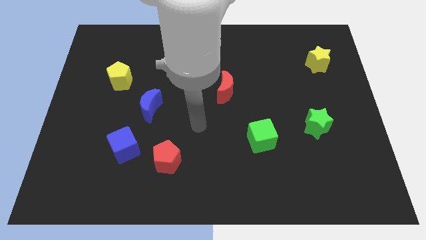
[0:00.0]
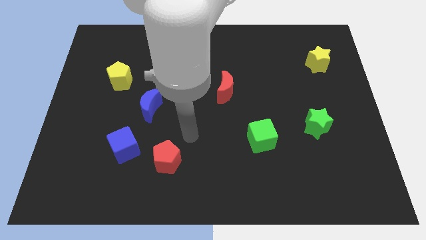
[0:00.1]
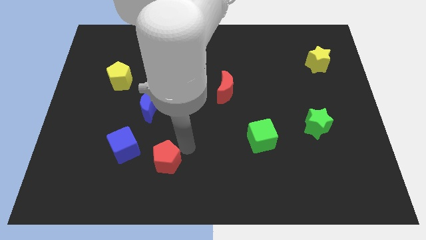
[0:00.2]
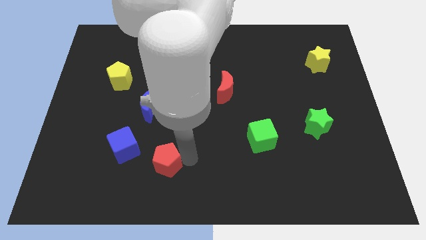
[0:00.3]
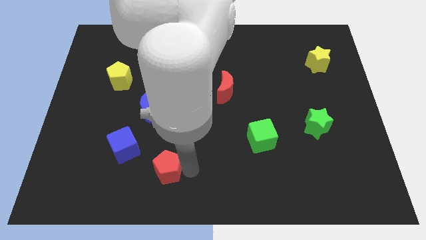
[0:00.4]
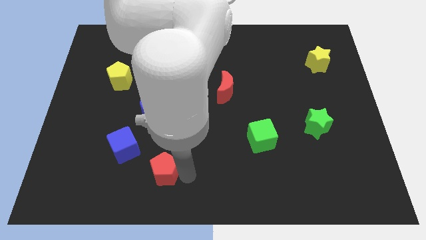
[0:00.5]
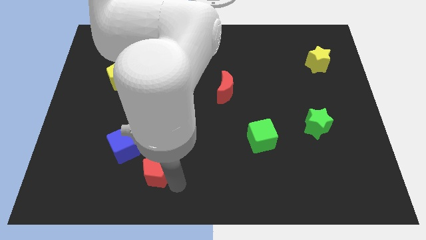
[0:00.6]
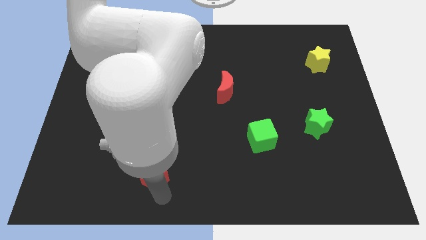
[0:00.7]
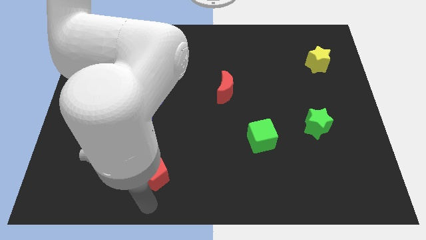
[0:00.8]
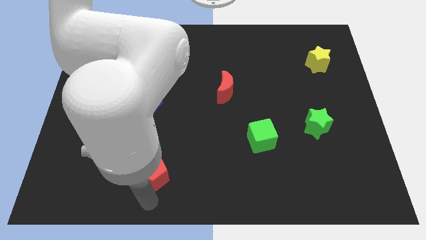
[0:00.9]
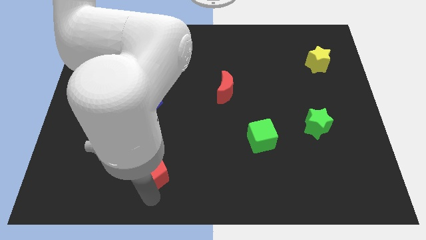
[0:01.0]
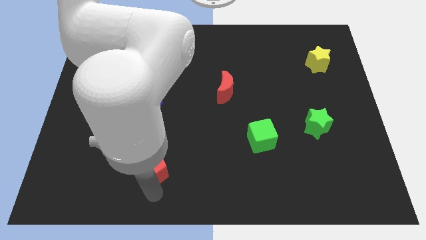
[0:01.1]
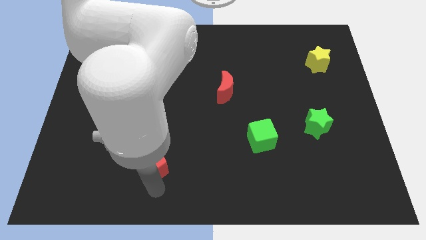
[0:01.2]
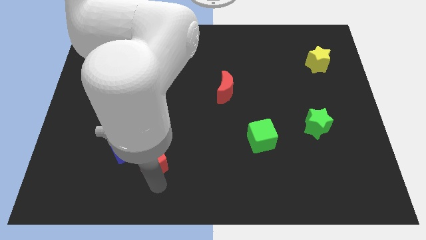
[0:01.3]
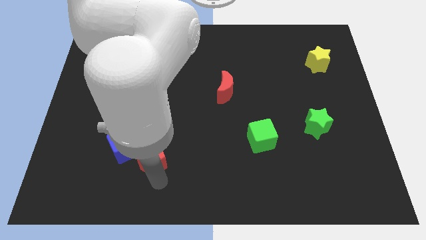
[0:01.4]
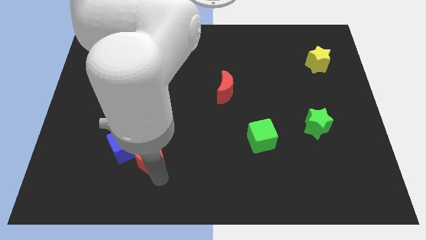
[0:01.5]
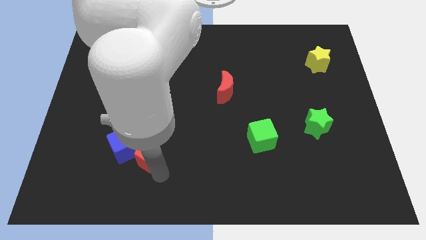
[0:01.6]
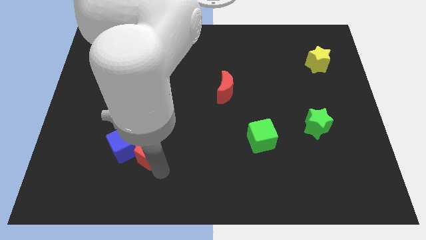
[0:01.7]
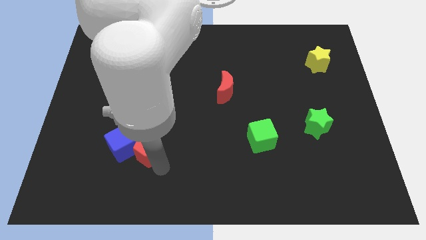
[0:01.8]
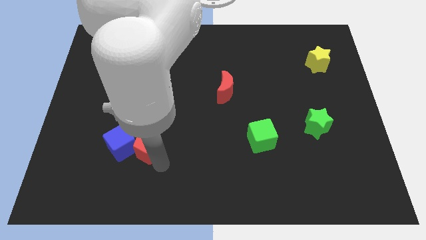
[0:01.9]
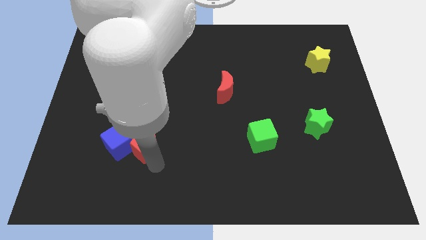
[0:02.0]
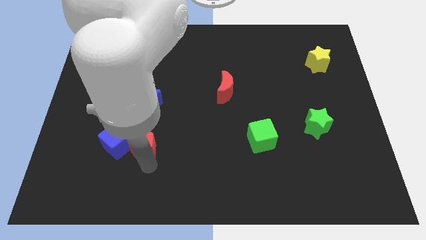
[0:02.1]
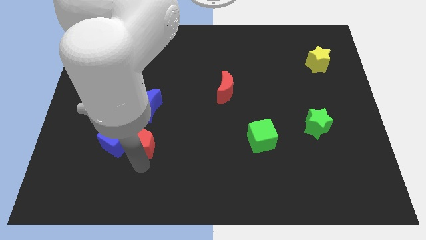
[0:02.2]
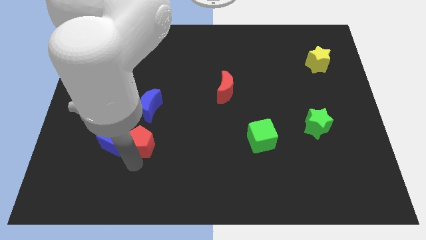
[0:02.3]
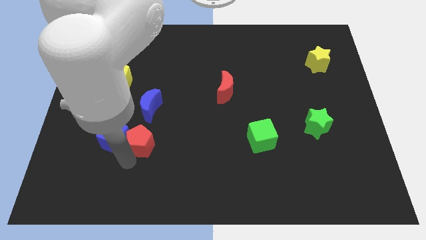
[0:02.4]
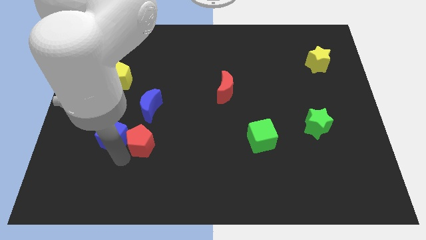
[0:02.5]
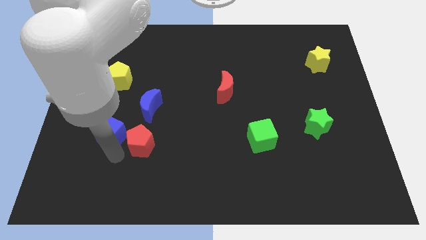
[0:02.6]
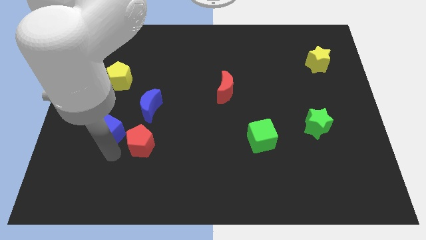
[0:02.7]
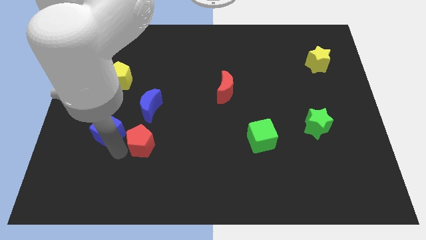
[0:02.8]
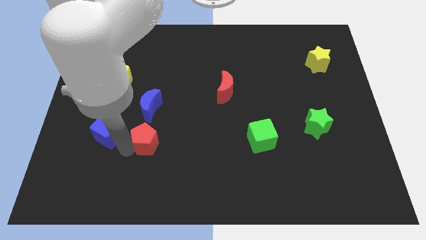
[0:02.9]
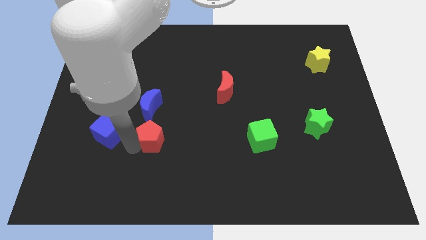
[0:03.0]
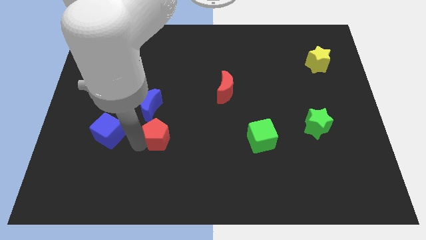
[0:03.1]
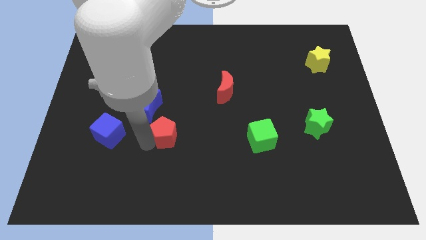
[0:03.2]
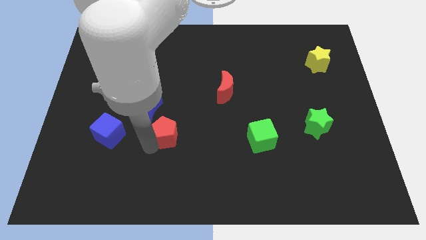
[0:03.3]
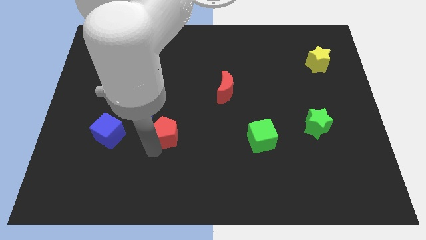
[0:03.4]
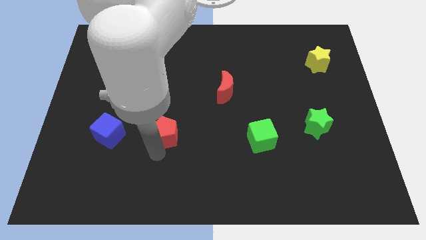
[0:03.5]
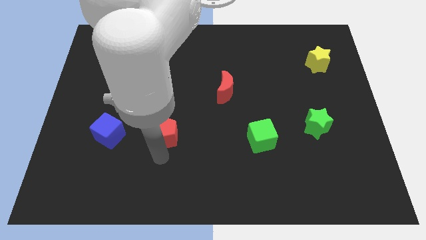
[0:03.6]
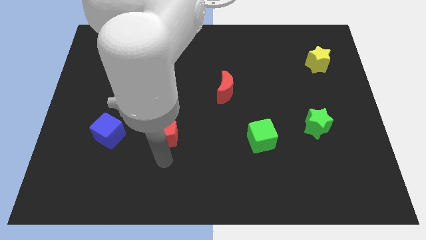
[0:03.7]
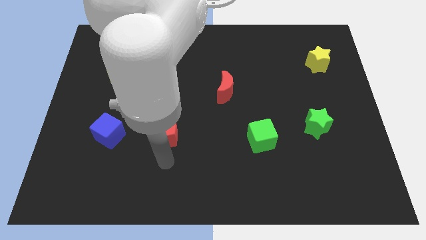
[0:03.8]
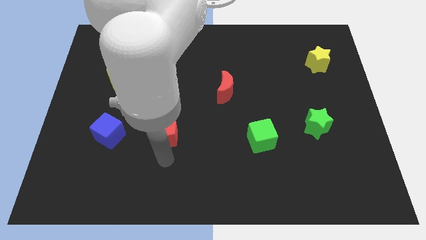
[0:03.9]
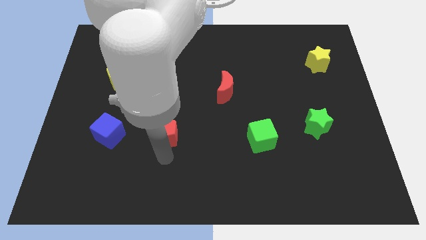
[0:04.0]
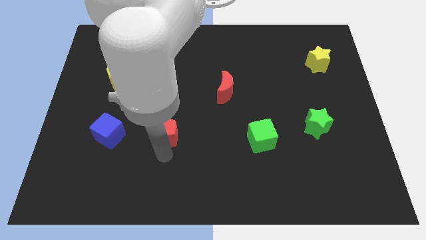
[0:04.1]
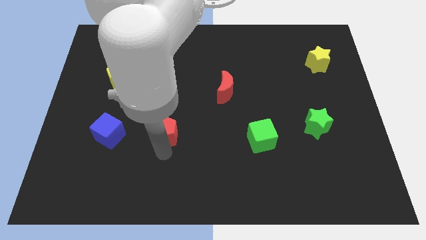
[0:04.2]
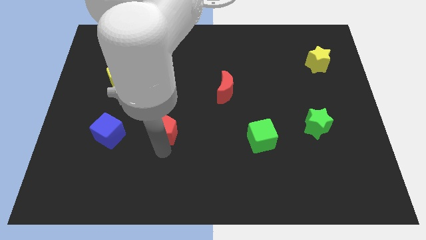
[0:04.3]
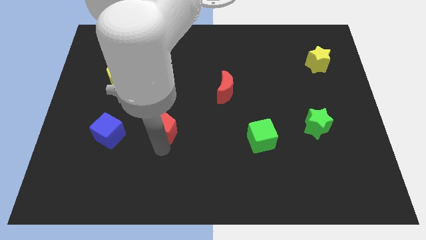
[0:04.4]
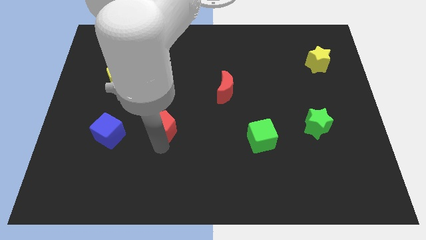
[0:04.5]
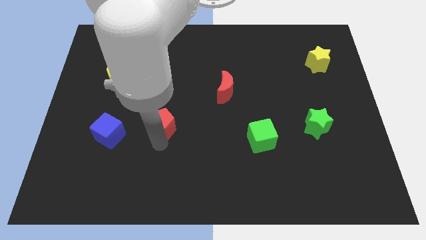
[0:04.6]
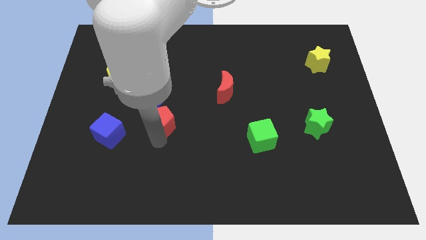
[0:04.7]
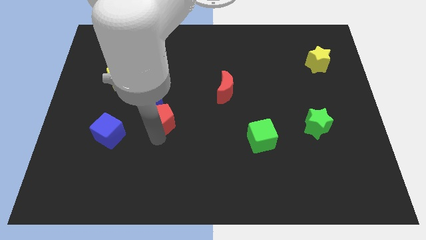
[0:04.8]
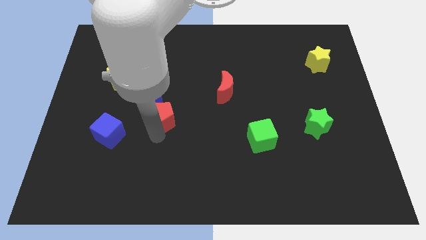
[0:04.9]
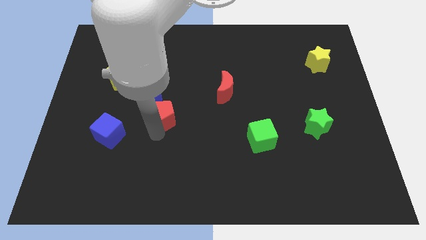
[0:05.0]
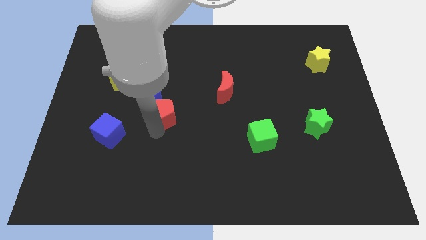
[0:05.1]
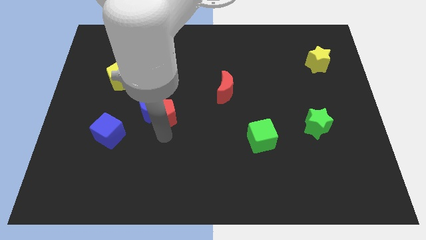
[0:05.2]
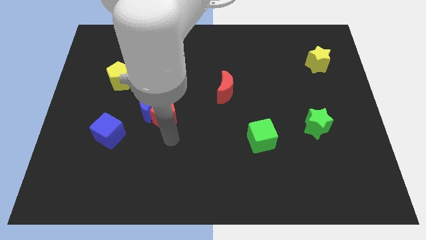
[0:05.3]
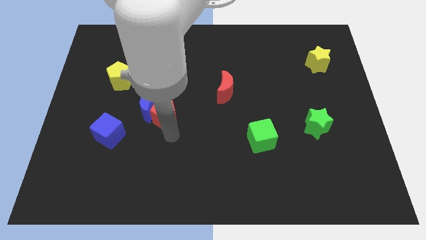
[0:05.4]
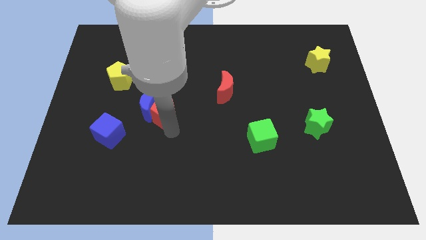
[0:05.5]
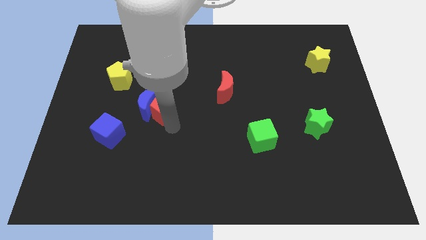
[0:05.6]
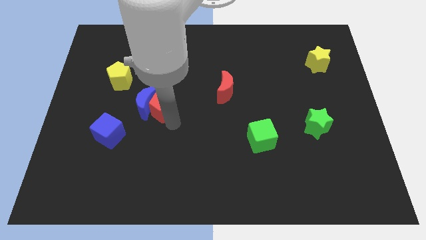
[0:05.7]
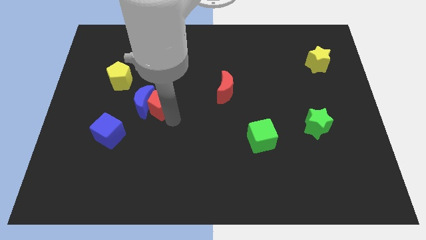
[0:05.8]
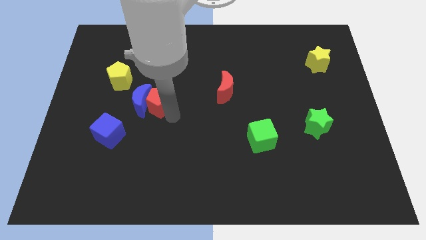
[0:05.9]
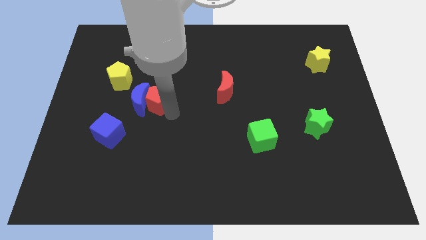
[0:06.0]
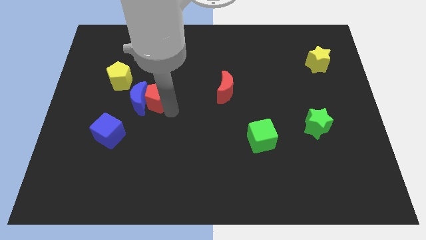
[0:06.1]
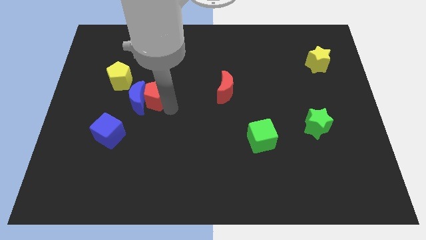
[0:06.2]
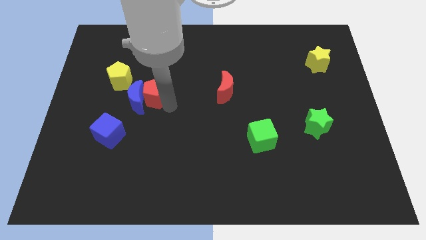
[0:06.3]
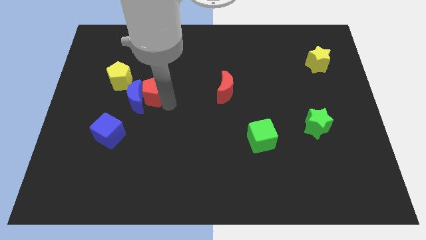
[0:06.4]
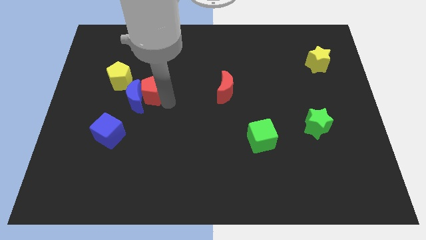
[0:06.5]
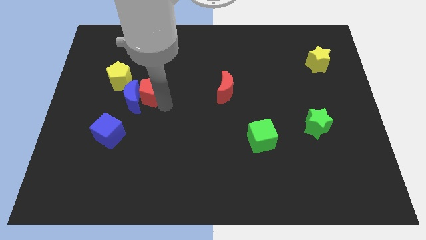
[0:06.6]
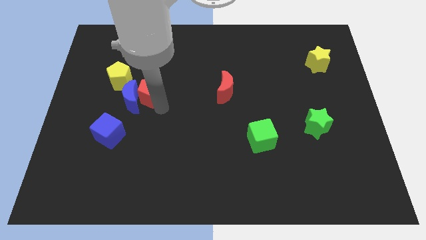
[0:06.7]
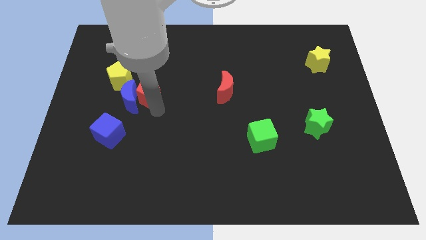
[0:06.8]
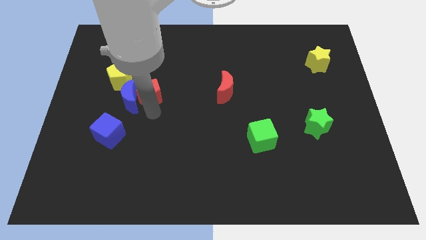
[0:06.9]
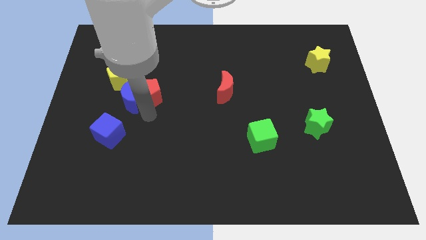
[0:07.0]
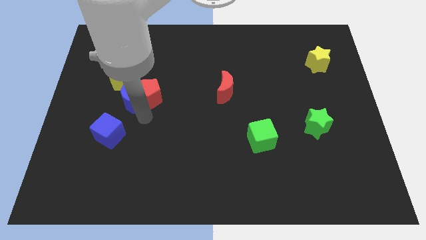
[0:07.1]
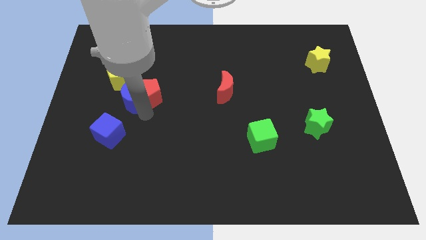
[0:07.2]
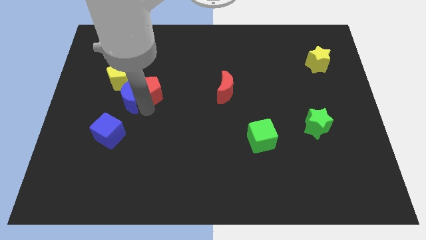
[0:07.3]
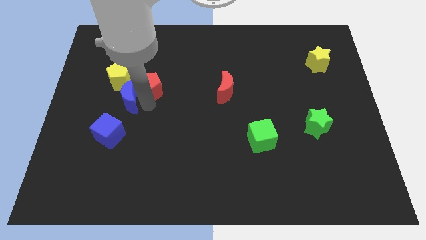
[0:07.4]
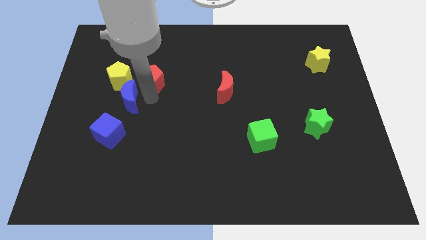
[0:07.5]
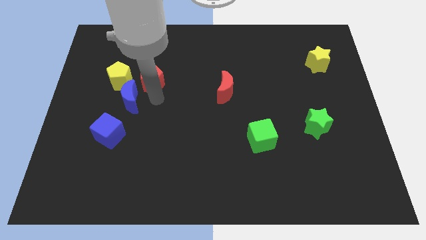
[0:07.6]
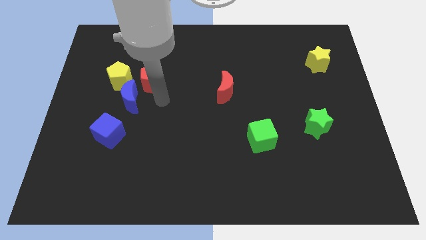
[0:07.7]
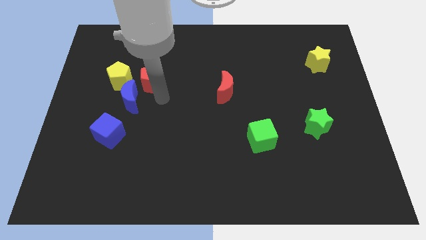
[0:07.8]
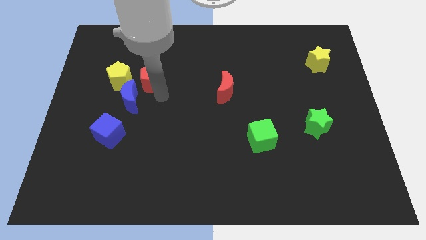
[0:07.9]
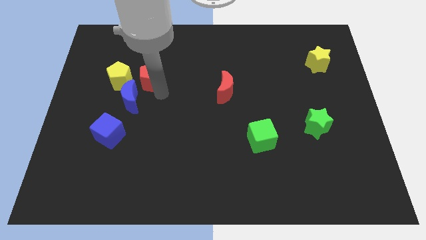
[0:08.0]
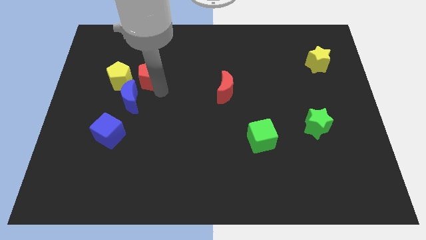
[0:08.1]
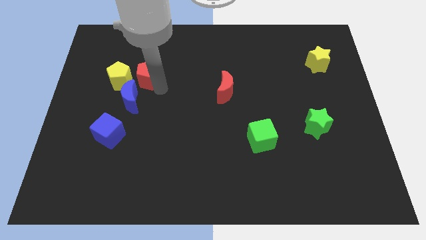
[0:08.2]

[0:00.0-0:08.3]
move the red pentagon to the top right side of the yellow pentagon
